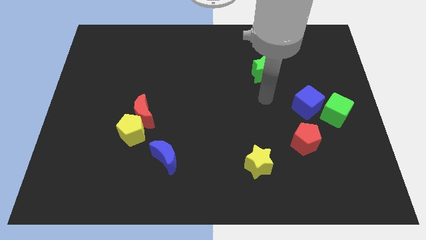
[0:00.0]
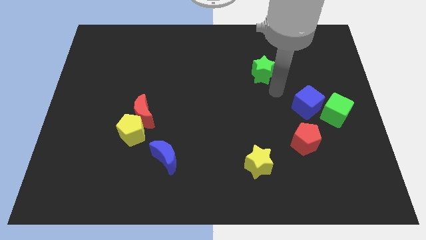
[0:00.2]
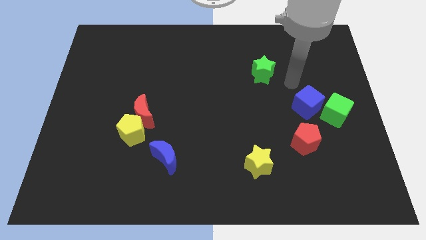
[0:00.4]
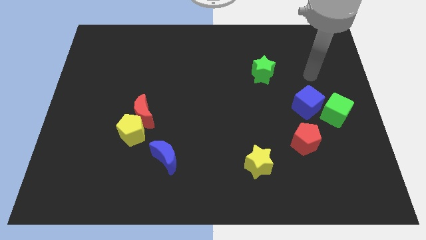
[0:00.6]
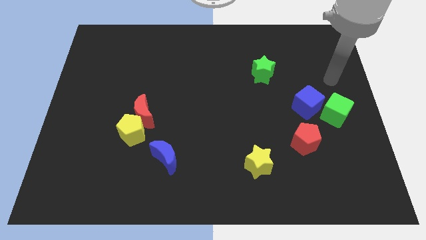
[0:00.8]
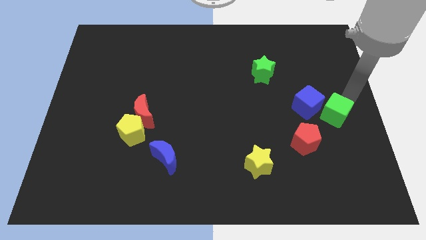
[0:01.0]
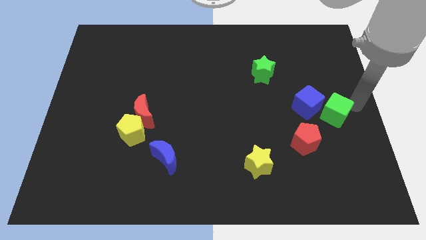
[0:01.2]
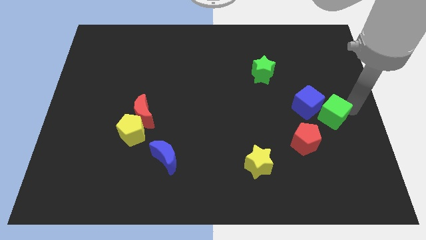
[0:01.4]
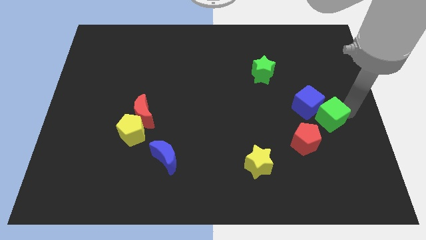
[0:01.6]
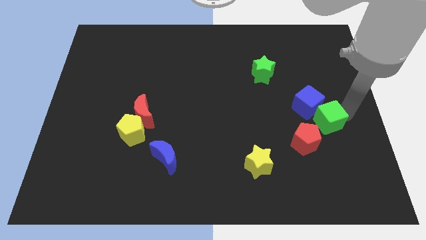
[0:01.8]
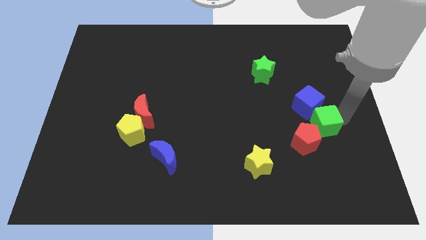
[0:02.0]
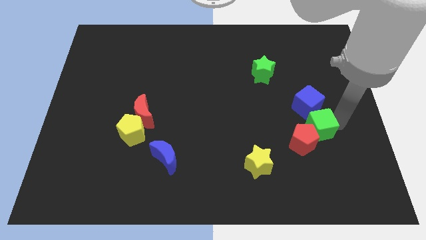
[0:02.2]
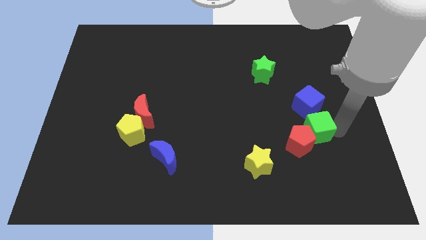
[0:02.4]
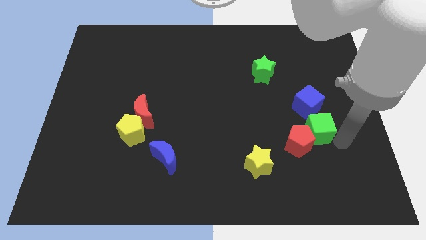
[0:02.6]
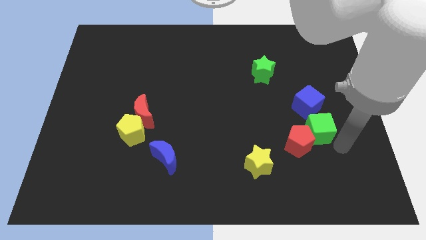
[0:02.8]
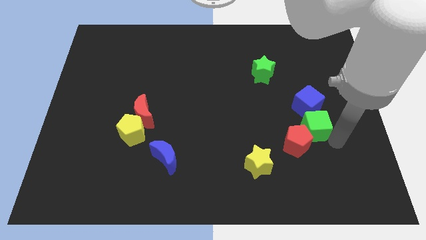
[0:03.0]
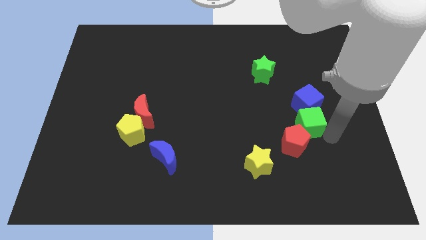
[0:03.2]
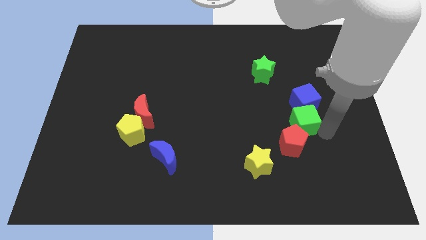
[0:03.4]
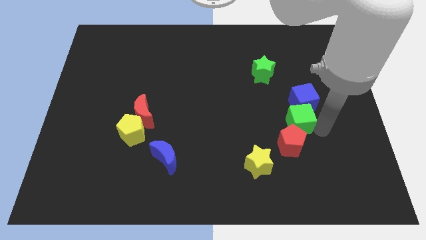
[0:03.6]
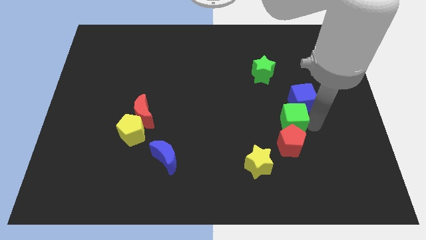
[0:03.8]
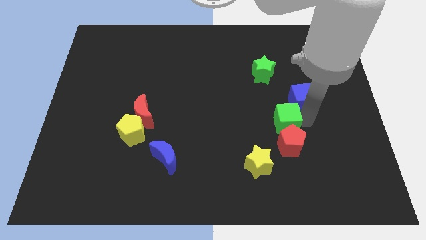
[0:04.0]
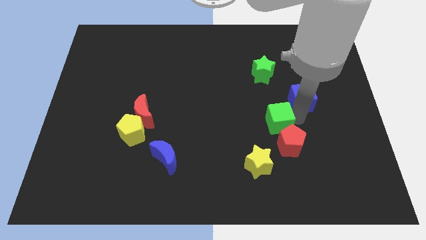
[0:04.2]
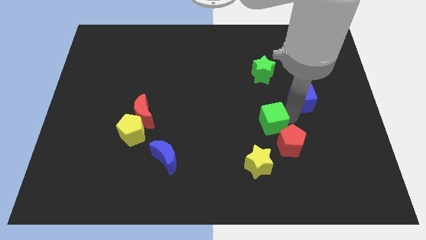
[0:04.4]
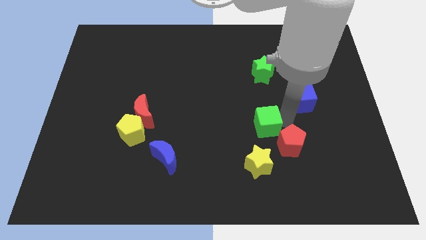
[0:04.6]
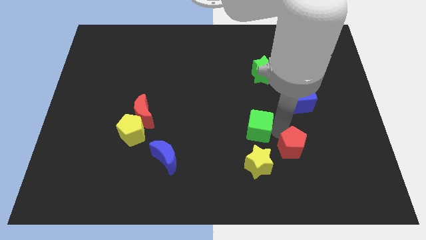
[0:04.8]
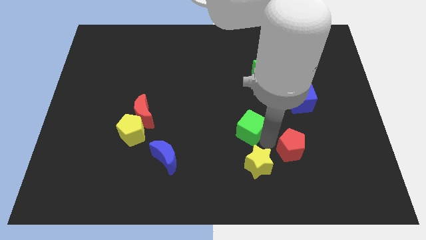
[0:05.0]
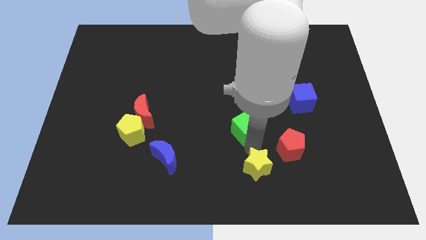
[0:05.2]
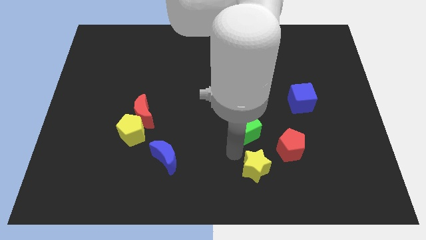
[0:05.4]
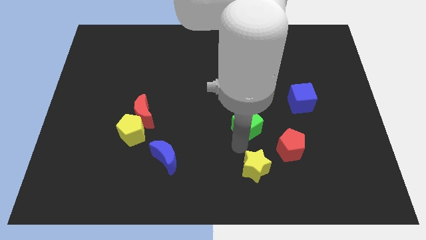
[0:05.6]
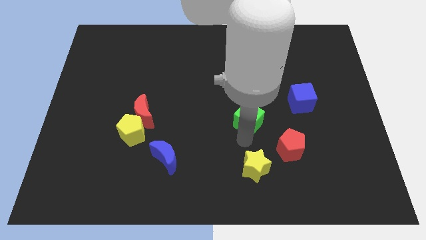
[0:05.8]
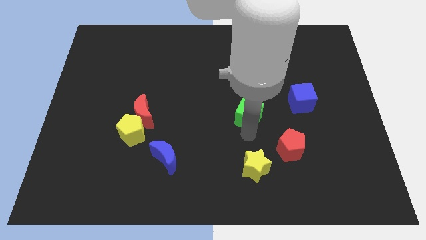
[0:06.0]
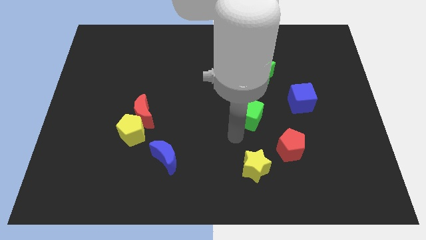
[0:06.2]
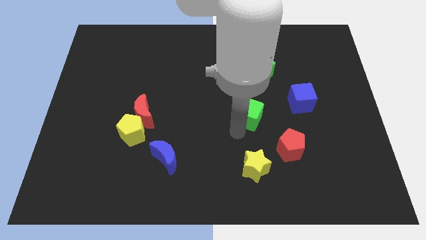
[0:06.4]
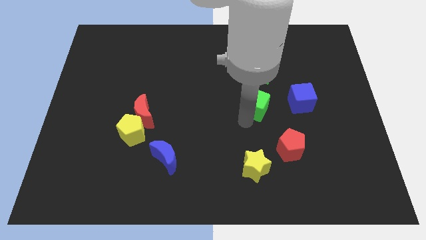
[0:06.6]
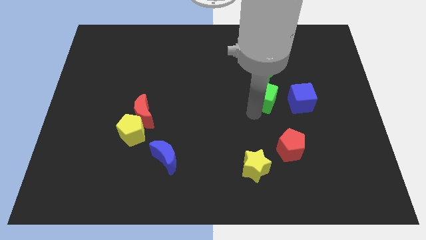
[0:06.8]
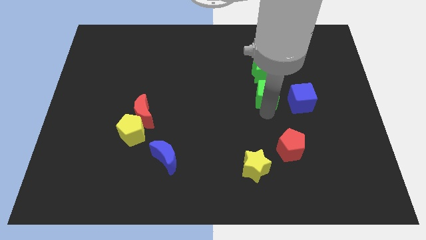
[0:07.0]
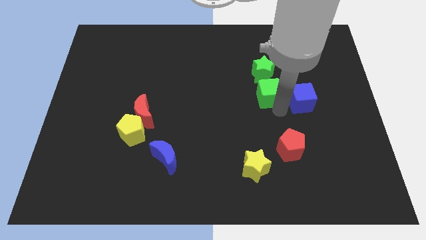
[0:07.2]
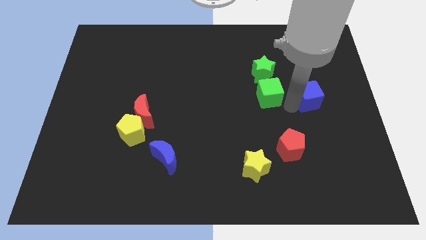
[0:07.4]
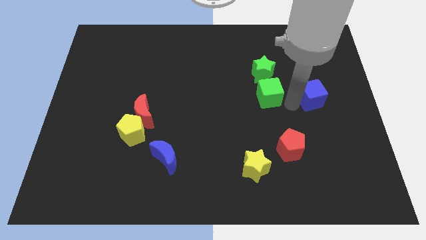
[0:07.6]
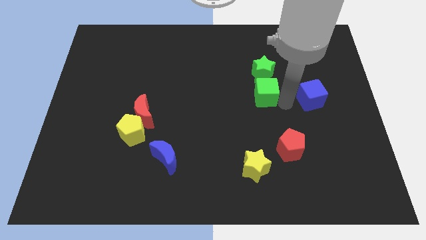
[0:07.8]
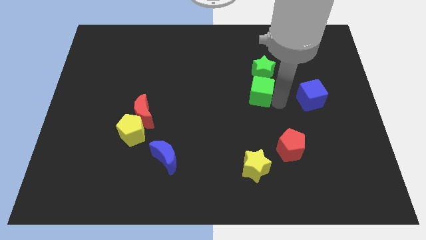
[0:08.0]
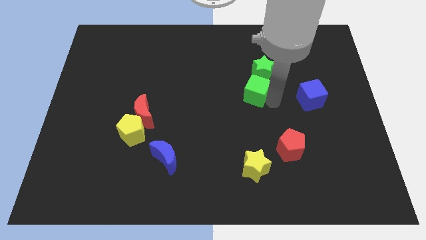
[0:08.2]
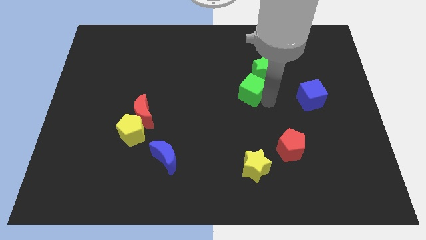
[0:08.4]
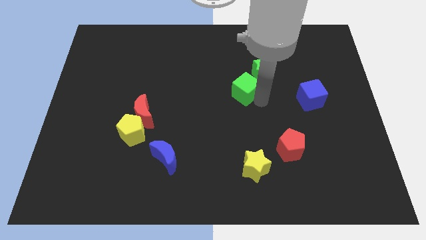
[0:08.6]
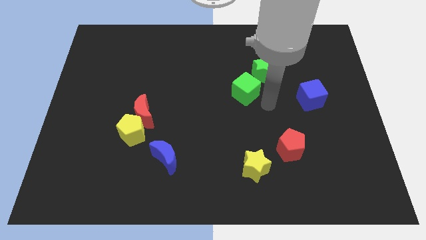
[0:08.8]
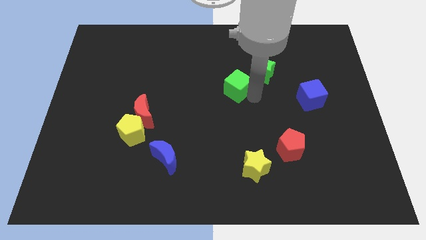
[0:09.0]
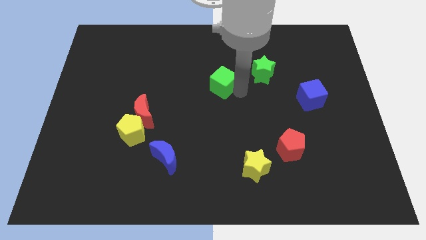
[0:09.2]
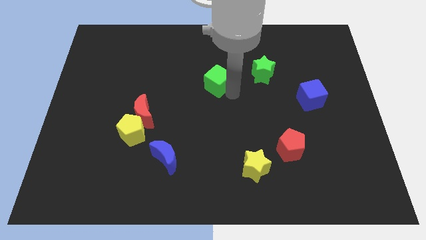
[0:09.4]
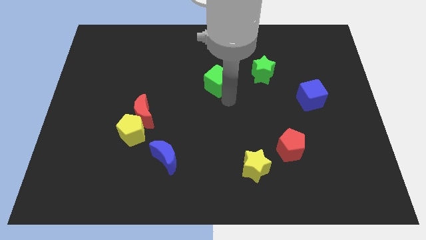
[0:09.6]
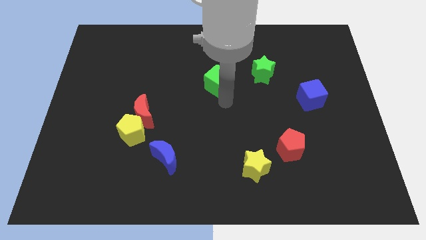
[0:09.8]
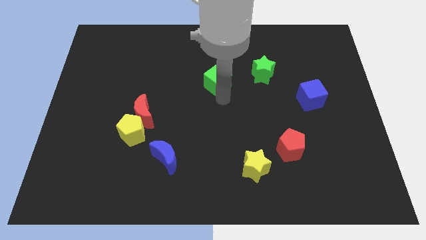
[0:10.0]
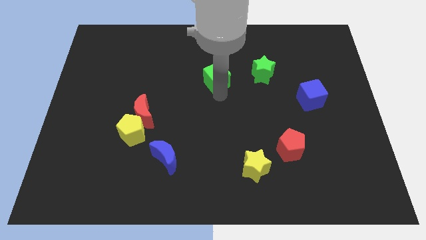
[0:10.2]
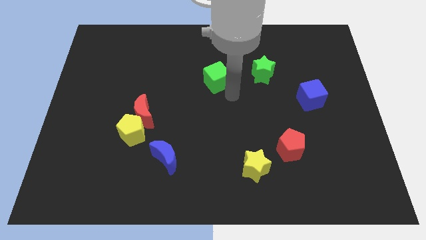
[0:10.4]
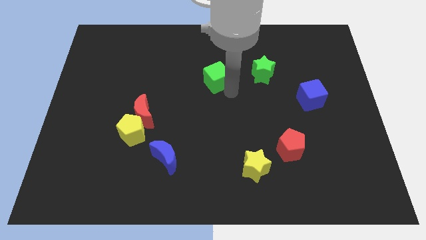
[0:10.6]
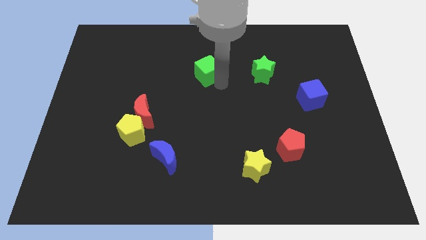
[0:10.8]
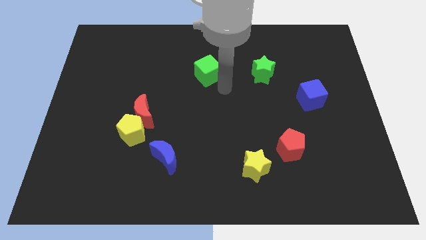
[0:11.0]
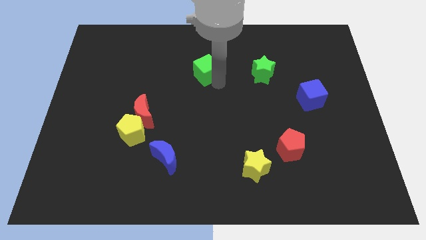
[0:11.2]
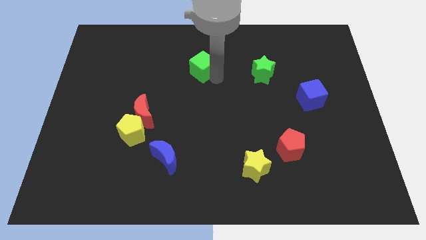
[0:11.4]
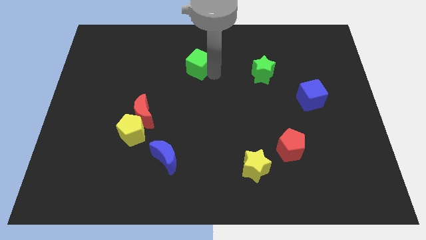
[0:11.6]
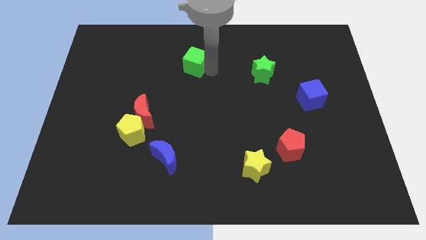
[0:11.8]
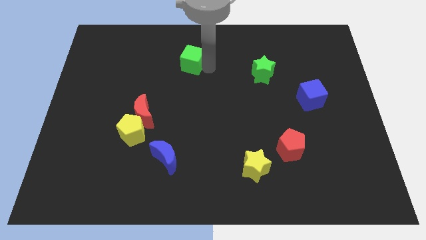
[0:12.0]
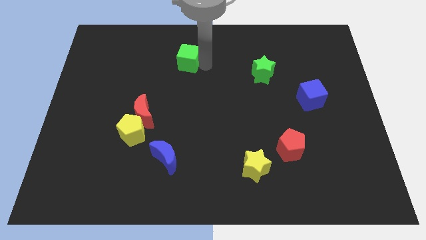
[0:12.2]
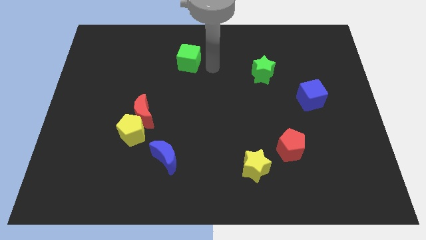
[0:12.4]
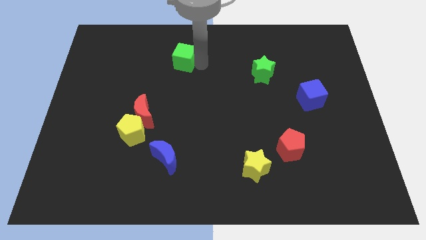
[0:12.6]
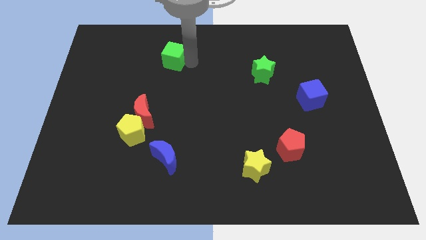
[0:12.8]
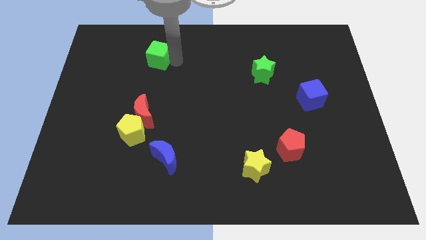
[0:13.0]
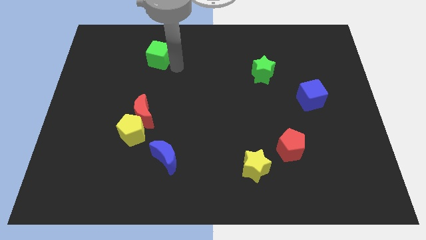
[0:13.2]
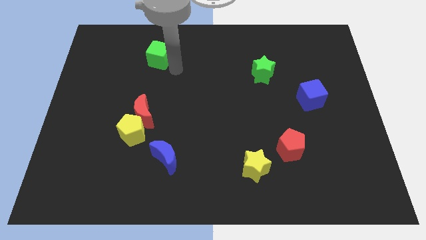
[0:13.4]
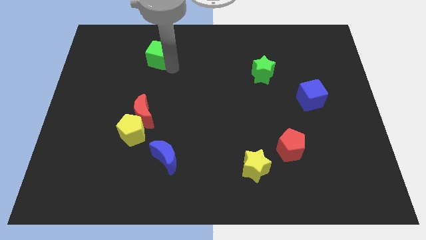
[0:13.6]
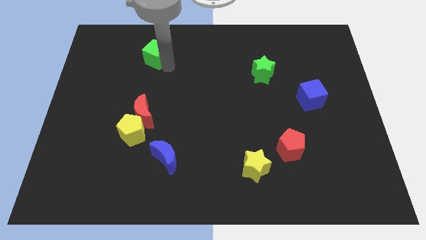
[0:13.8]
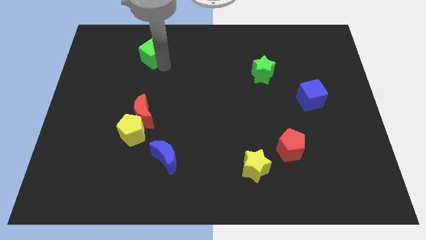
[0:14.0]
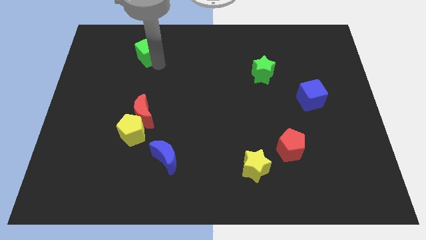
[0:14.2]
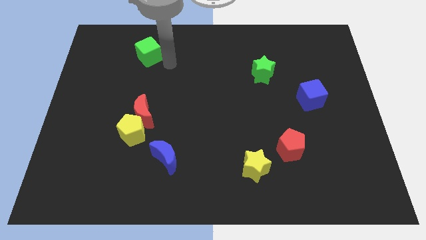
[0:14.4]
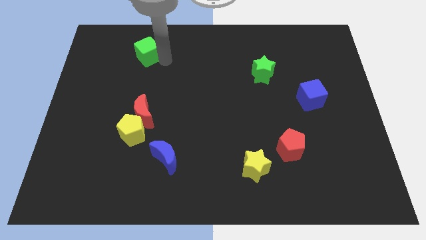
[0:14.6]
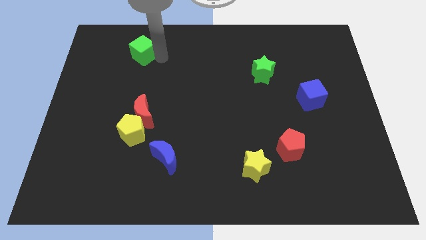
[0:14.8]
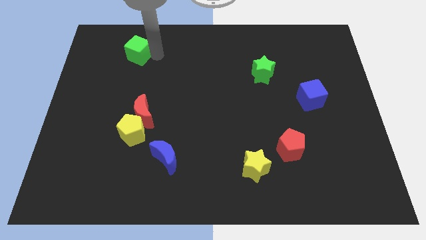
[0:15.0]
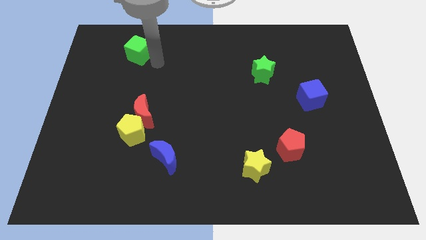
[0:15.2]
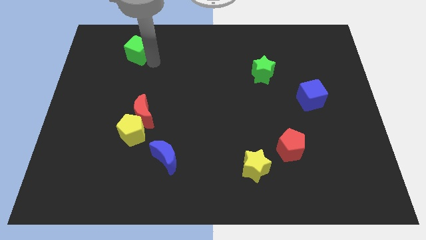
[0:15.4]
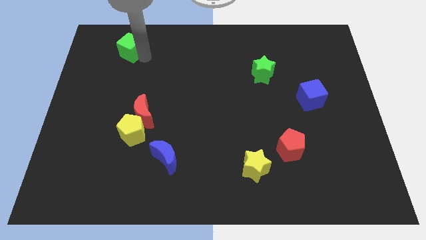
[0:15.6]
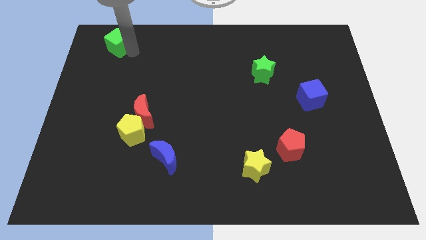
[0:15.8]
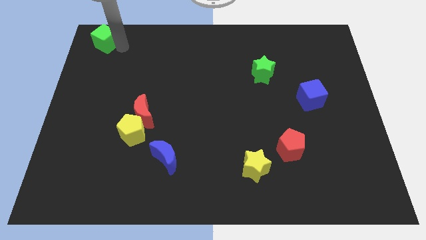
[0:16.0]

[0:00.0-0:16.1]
slide the green cube to the upper left corner
